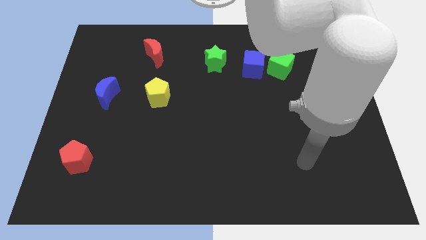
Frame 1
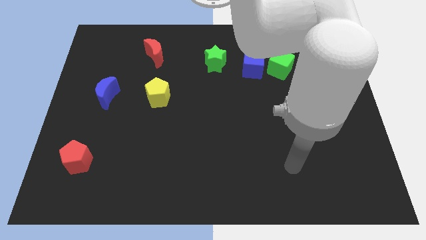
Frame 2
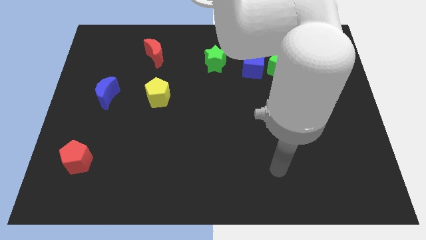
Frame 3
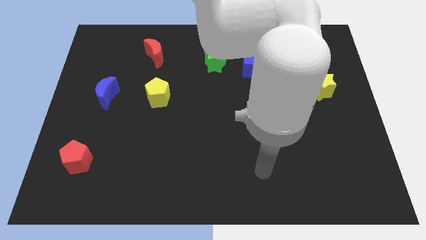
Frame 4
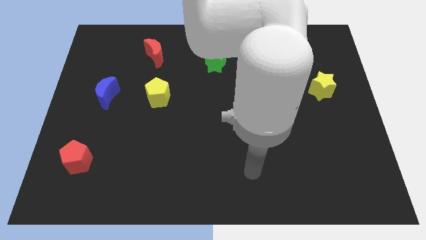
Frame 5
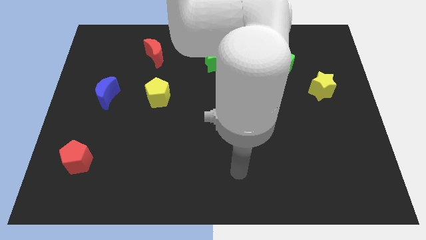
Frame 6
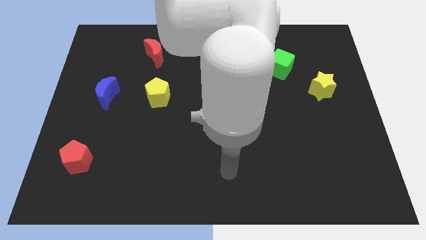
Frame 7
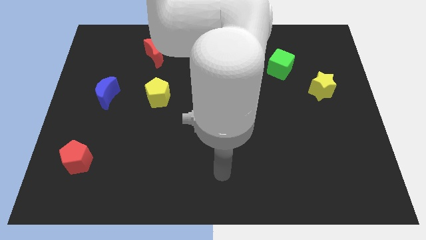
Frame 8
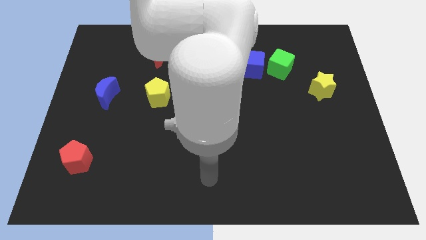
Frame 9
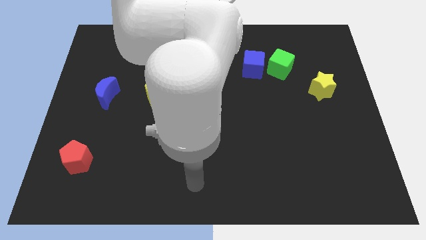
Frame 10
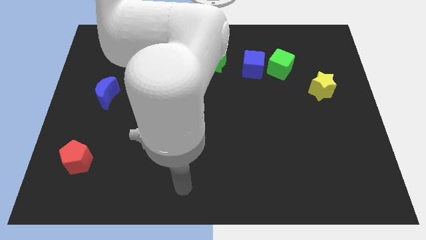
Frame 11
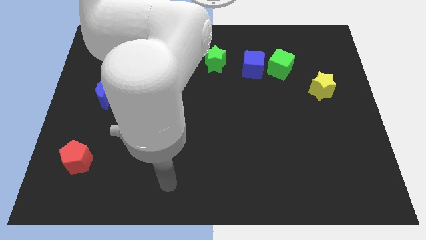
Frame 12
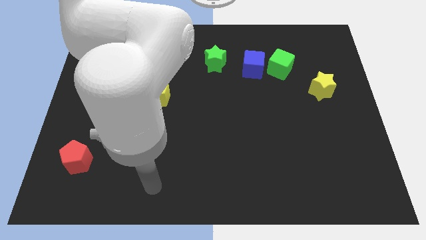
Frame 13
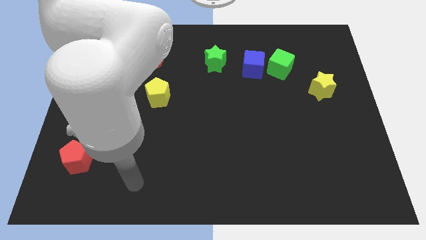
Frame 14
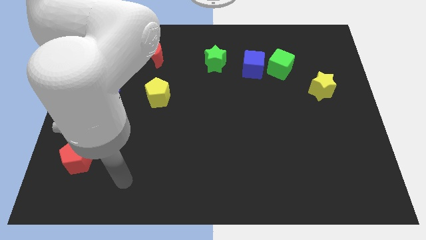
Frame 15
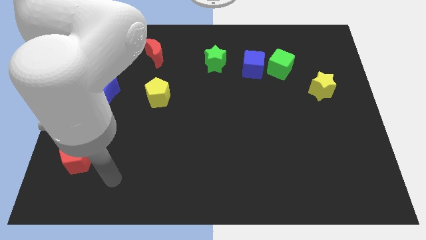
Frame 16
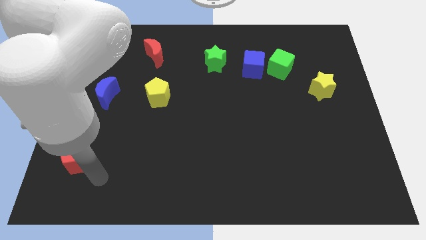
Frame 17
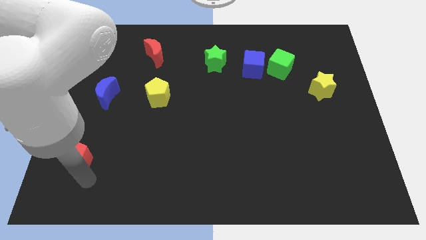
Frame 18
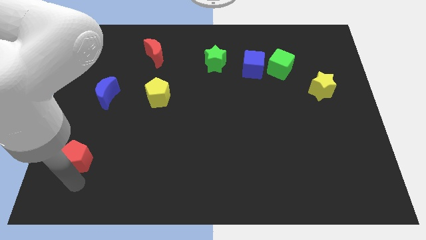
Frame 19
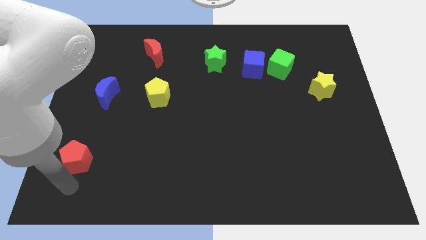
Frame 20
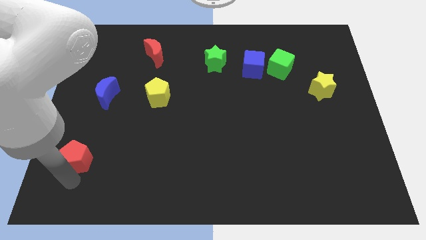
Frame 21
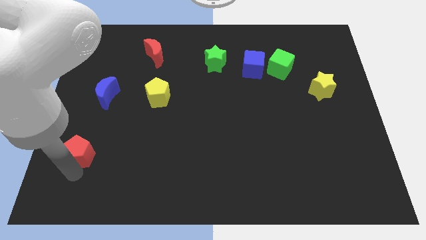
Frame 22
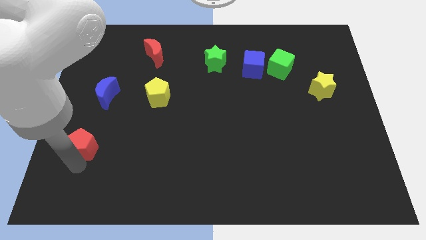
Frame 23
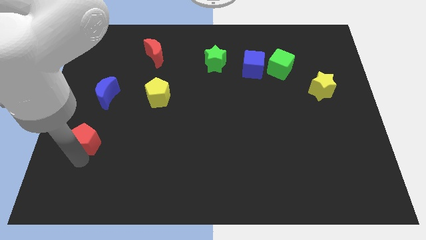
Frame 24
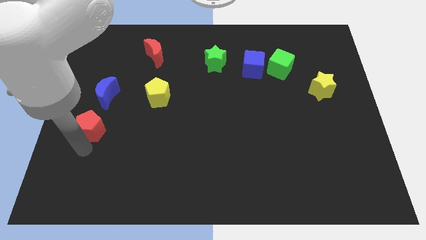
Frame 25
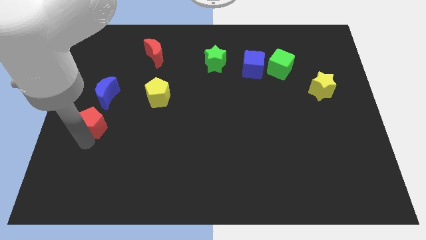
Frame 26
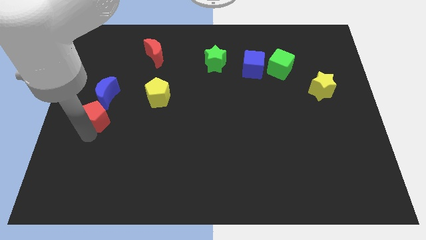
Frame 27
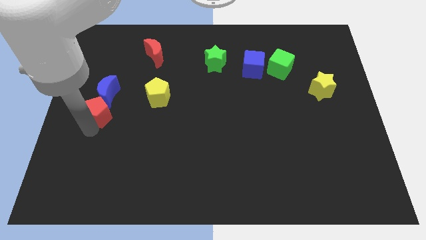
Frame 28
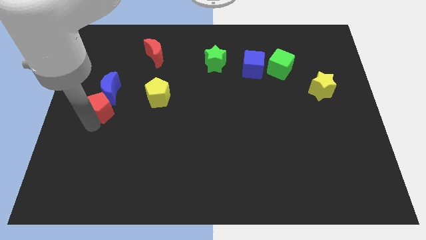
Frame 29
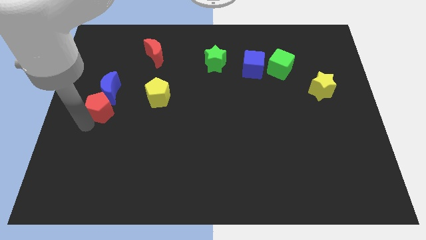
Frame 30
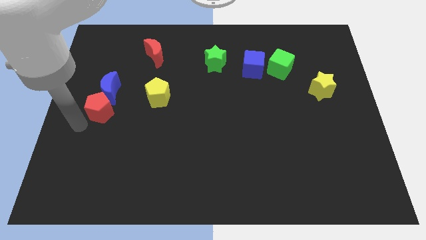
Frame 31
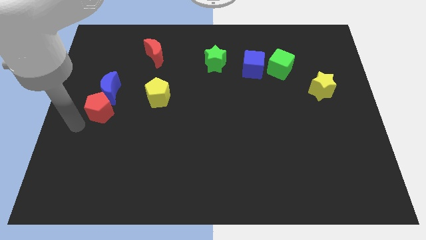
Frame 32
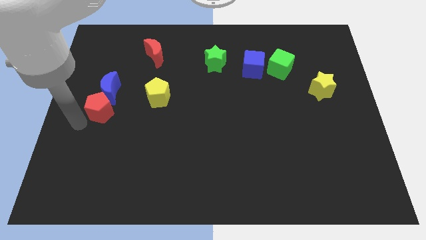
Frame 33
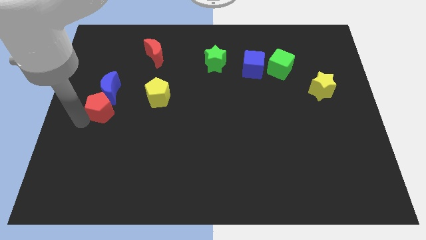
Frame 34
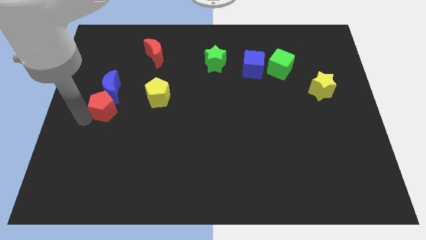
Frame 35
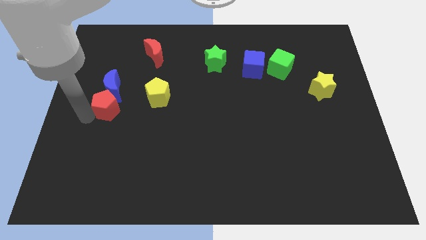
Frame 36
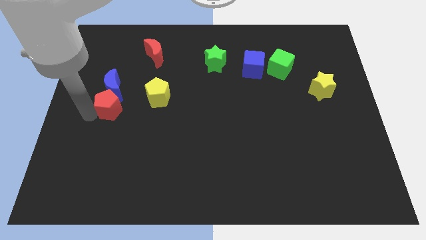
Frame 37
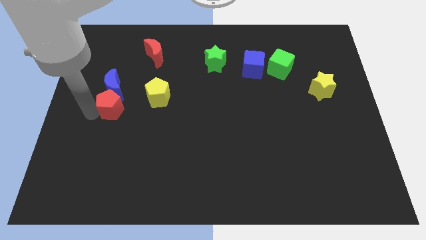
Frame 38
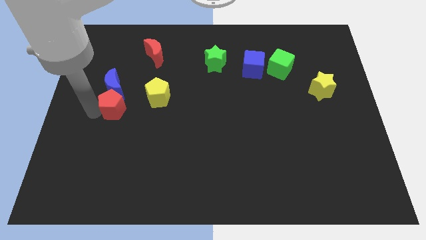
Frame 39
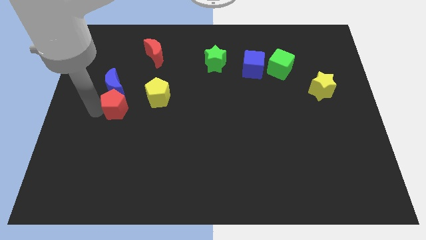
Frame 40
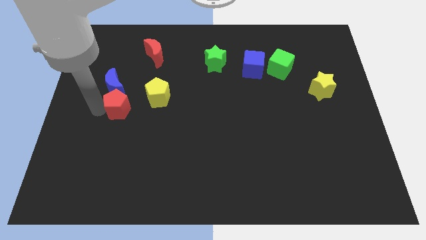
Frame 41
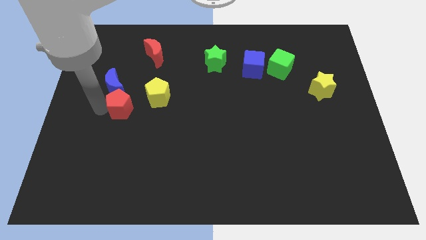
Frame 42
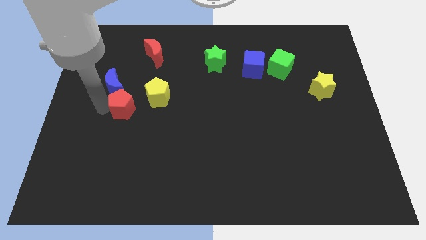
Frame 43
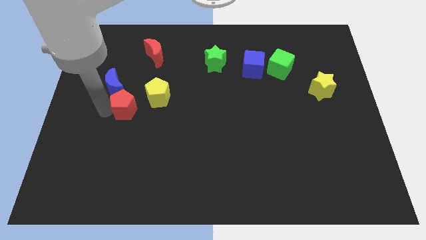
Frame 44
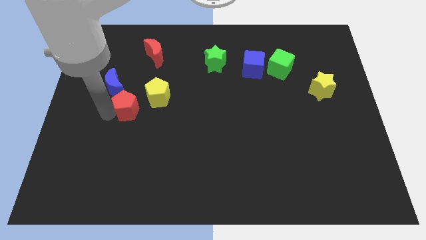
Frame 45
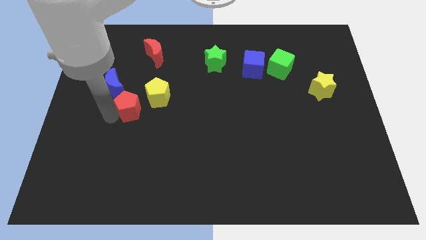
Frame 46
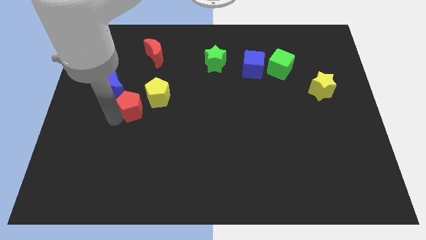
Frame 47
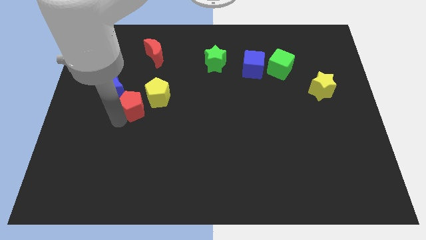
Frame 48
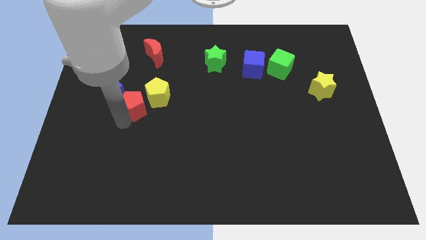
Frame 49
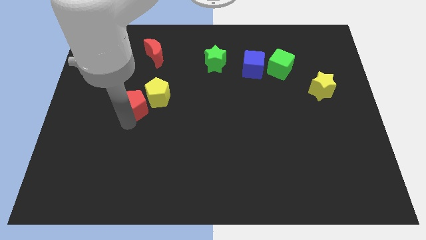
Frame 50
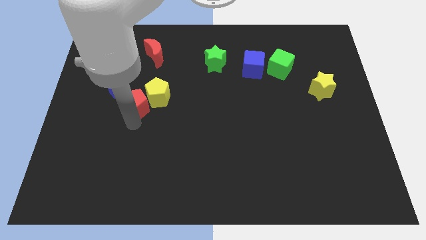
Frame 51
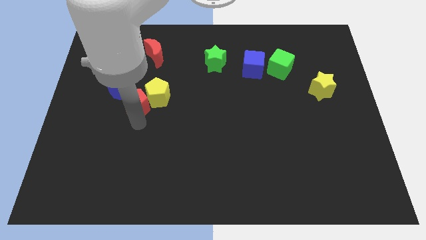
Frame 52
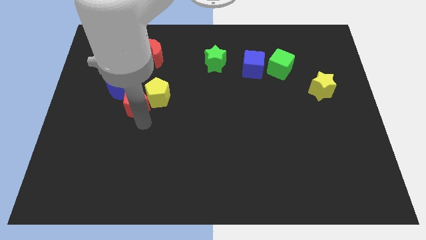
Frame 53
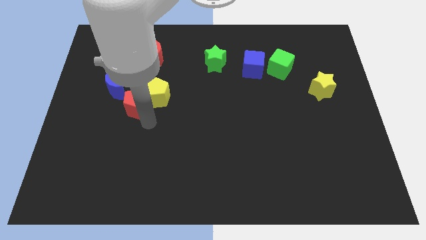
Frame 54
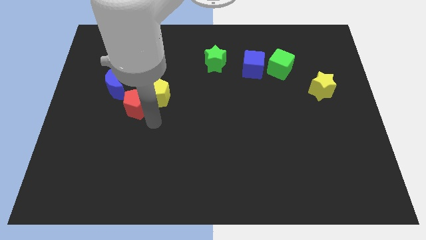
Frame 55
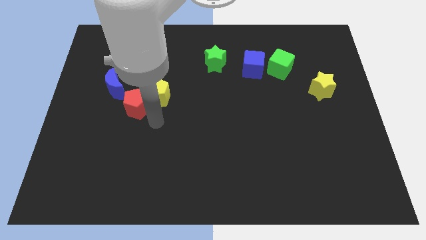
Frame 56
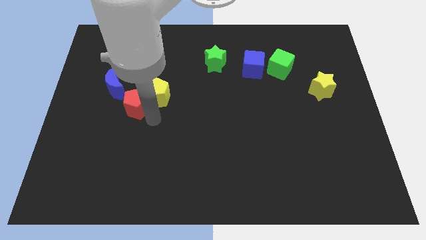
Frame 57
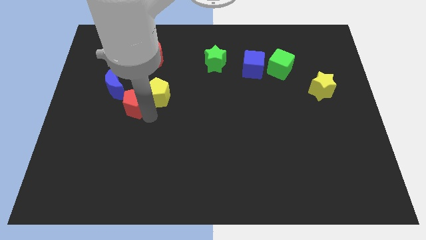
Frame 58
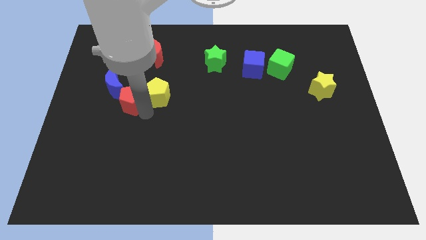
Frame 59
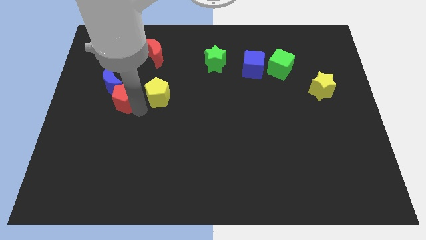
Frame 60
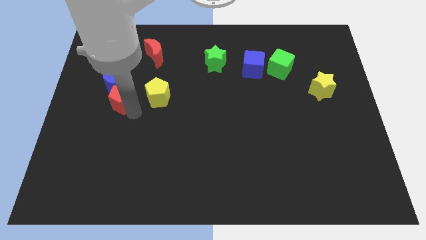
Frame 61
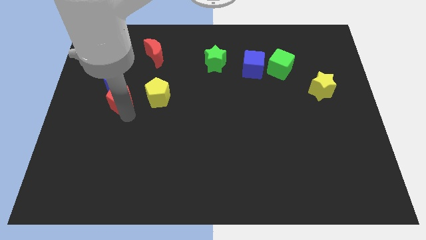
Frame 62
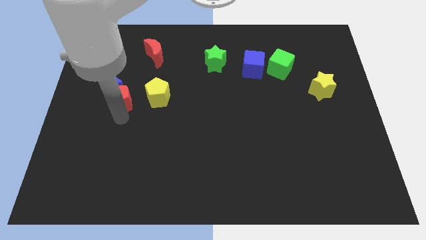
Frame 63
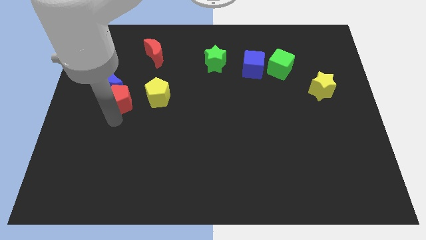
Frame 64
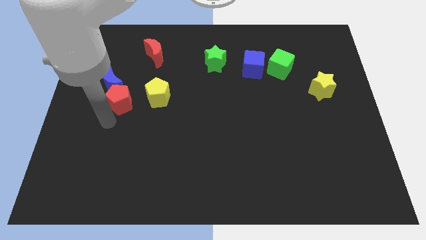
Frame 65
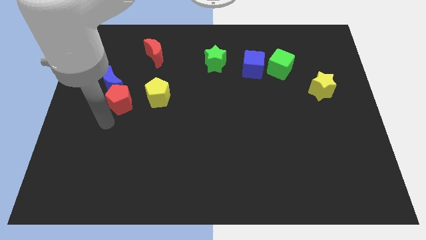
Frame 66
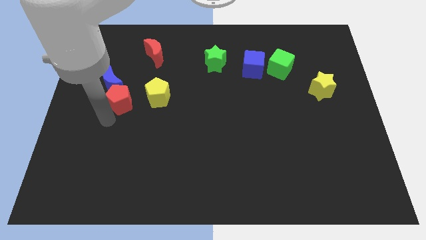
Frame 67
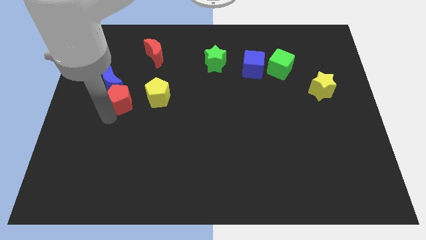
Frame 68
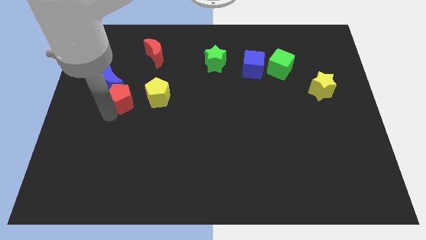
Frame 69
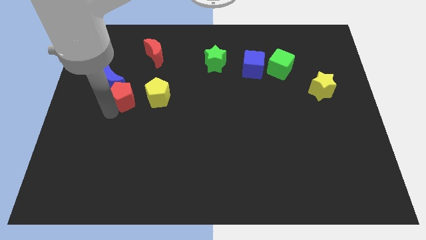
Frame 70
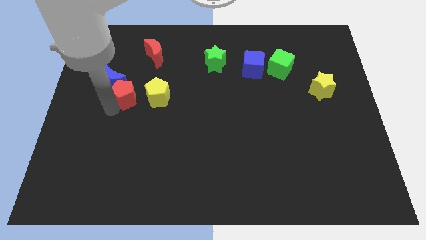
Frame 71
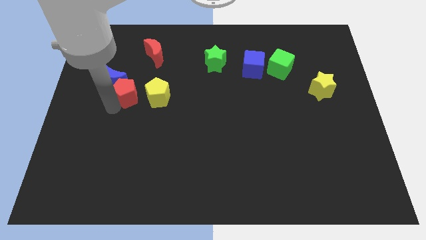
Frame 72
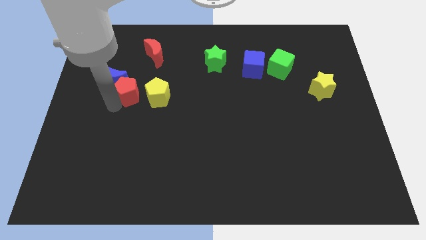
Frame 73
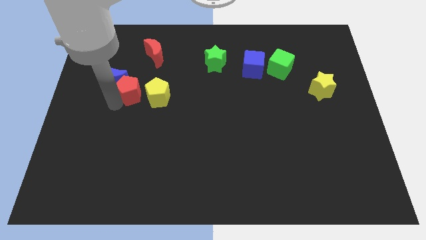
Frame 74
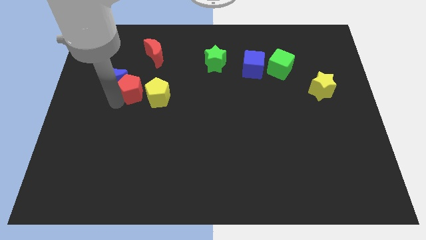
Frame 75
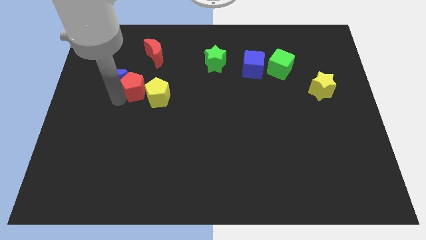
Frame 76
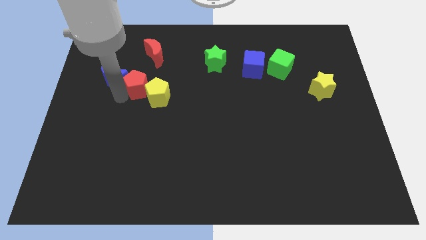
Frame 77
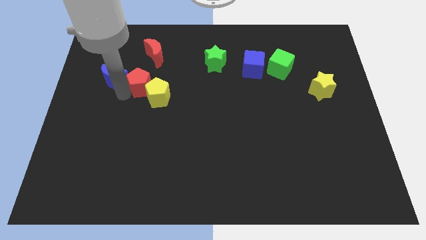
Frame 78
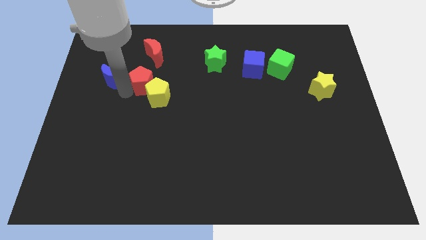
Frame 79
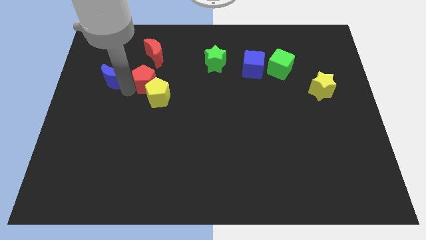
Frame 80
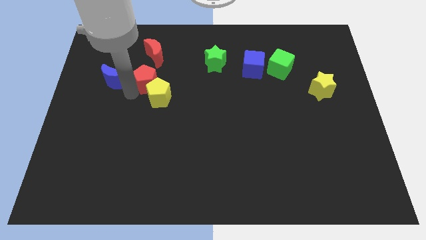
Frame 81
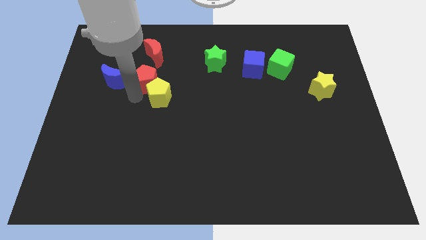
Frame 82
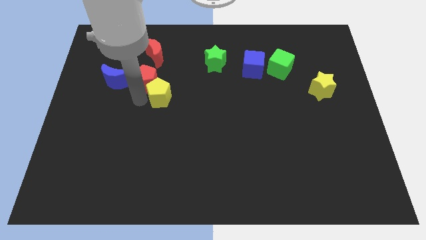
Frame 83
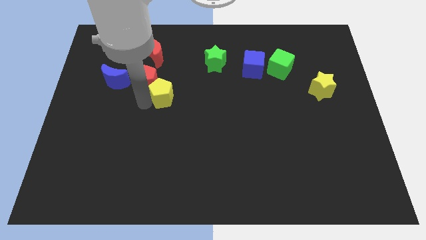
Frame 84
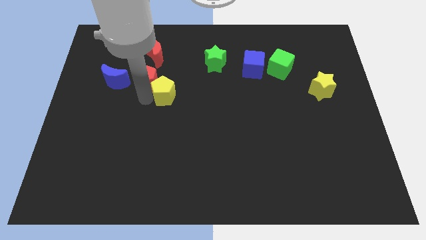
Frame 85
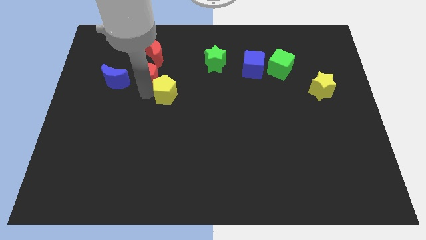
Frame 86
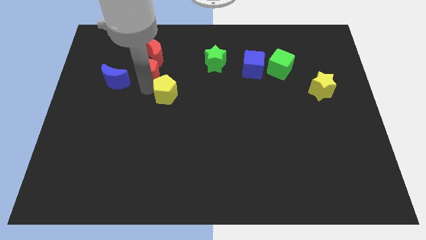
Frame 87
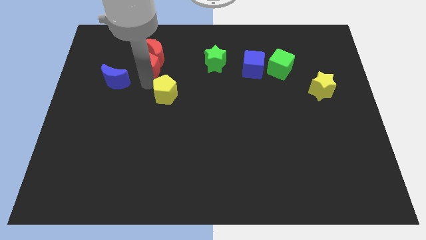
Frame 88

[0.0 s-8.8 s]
slide the red pentagon close to the red moon
